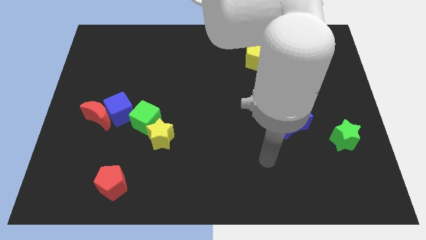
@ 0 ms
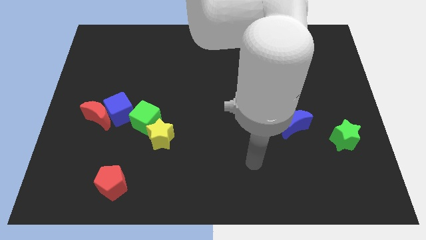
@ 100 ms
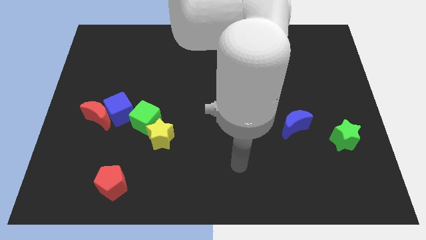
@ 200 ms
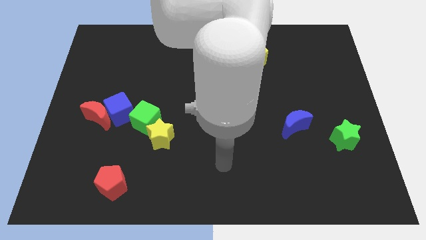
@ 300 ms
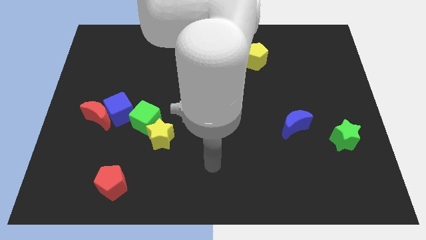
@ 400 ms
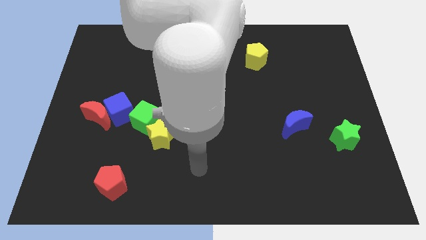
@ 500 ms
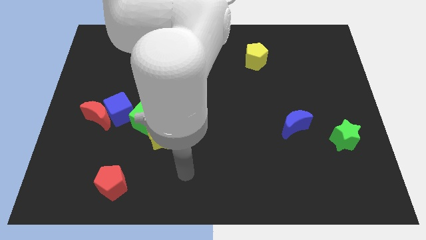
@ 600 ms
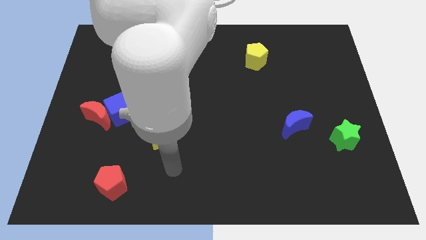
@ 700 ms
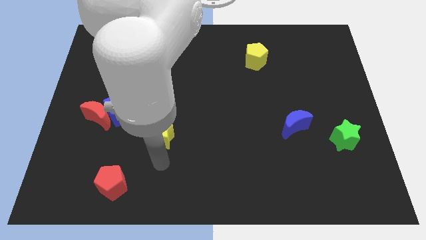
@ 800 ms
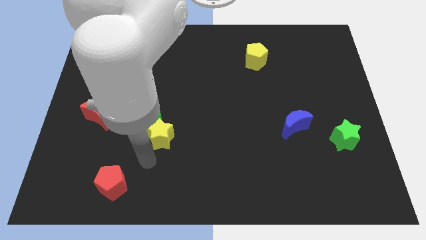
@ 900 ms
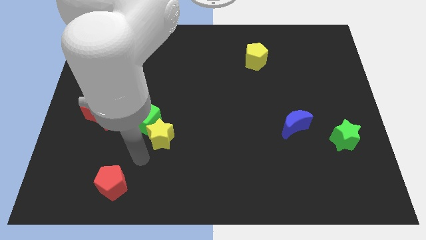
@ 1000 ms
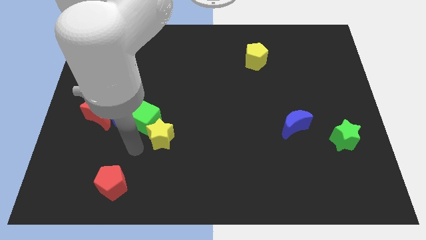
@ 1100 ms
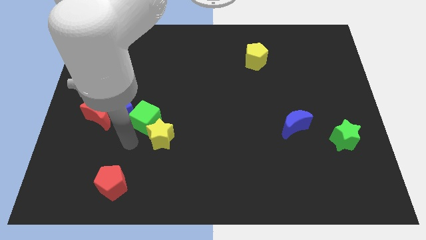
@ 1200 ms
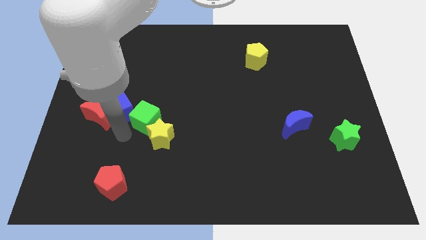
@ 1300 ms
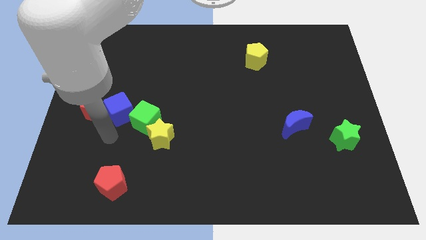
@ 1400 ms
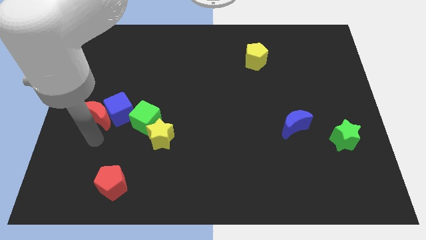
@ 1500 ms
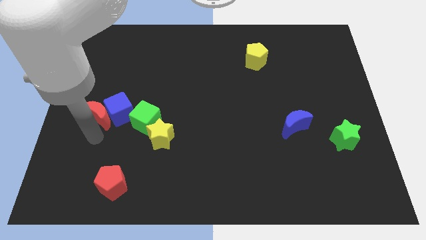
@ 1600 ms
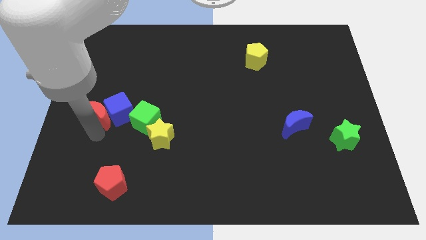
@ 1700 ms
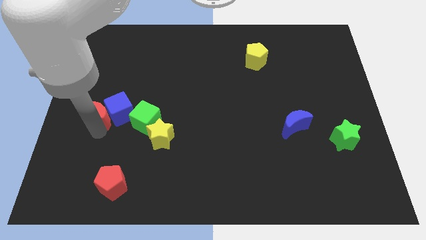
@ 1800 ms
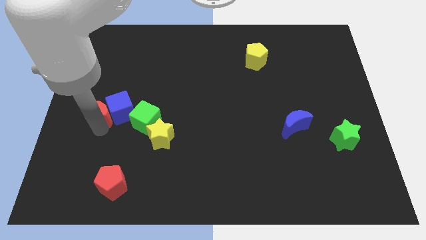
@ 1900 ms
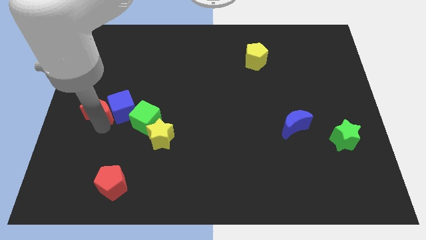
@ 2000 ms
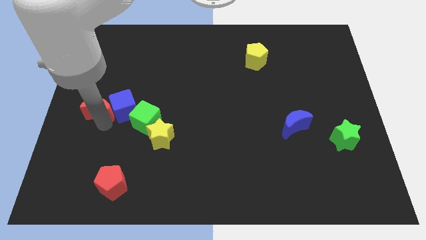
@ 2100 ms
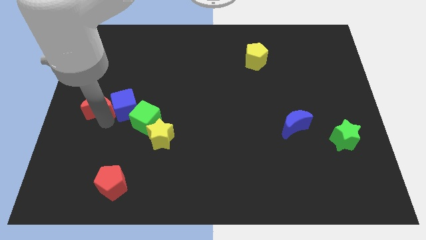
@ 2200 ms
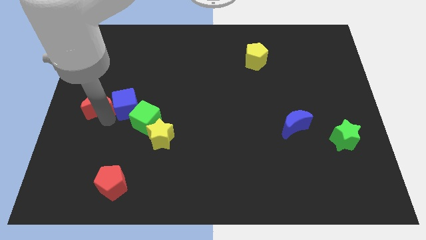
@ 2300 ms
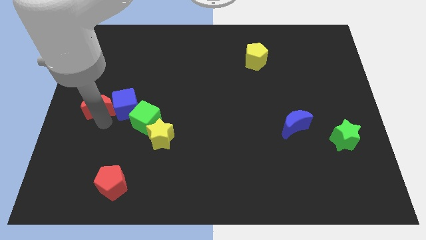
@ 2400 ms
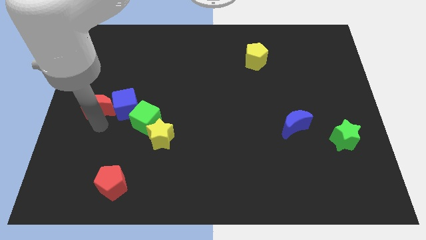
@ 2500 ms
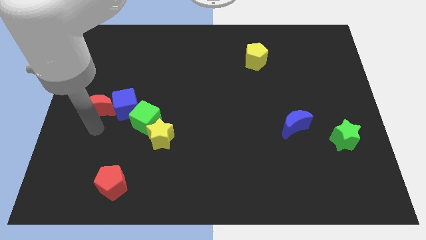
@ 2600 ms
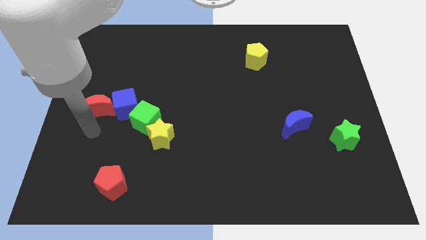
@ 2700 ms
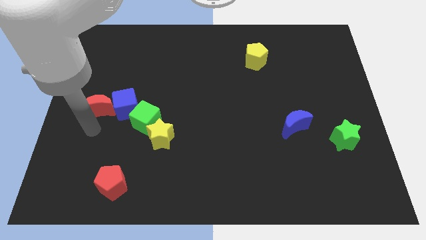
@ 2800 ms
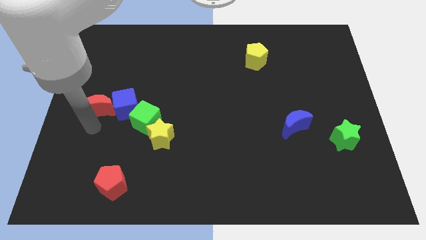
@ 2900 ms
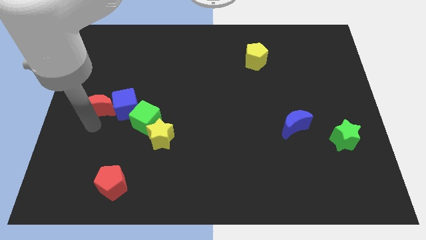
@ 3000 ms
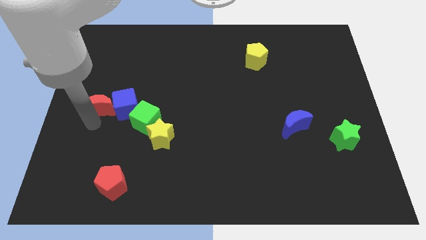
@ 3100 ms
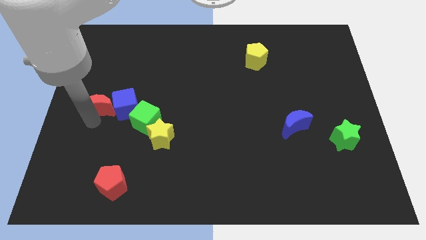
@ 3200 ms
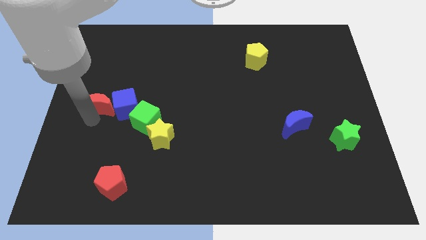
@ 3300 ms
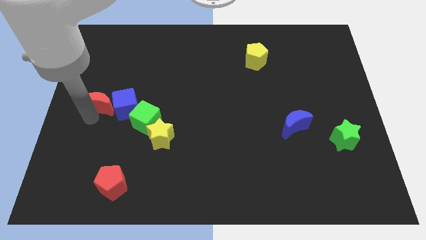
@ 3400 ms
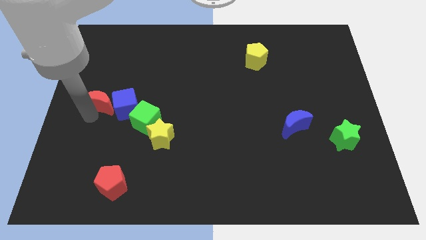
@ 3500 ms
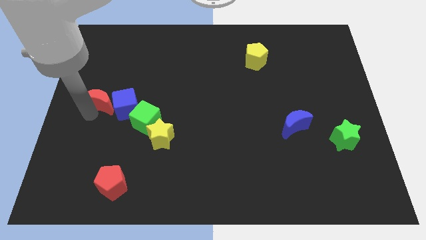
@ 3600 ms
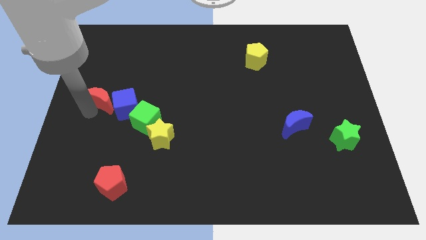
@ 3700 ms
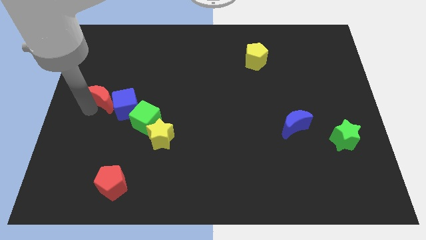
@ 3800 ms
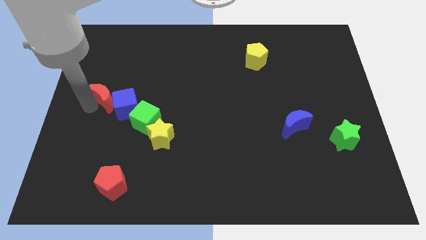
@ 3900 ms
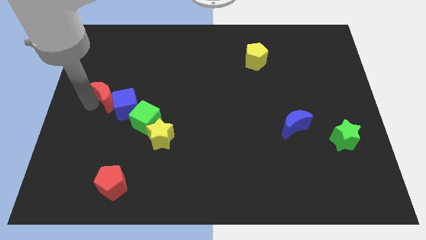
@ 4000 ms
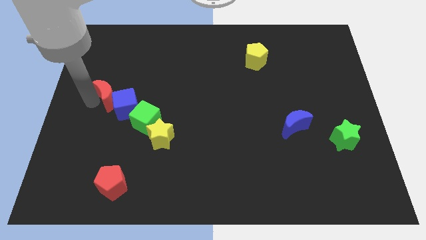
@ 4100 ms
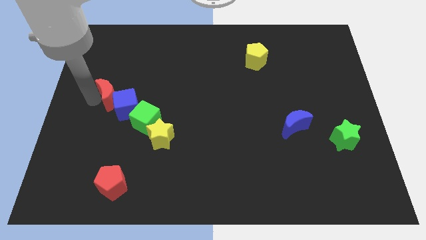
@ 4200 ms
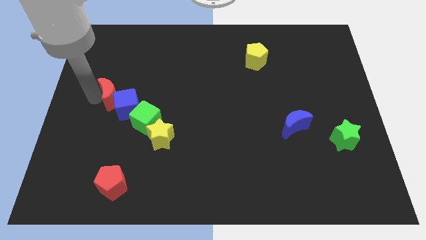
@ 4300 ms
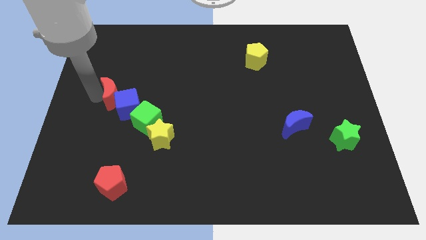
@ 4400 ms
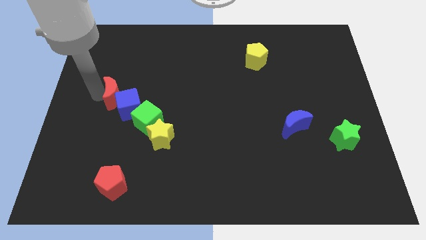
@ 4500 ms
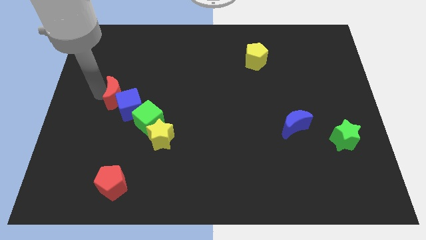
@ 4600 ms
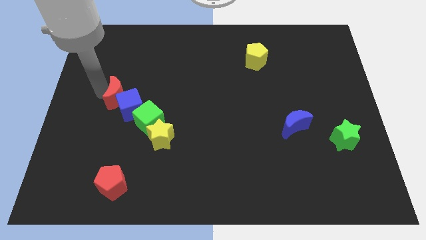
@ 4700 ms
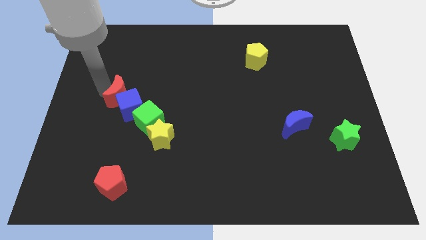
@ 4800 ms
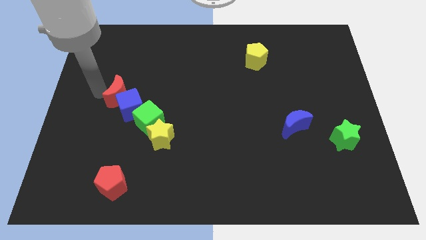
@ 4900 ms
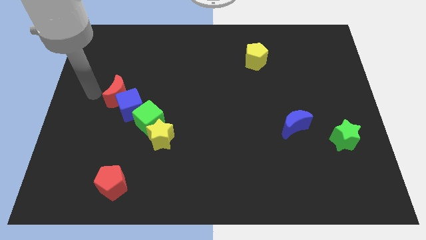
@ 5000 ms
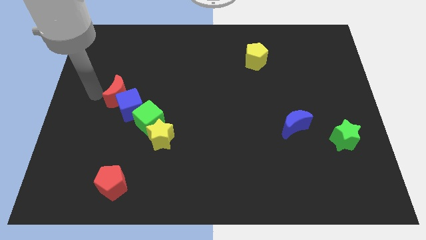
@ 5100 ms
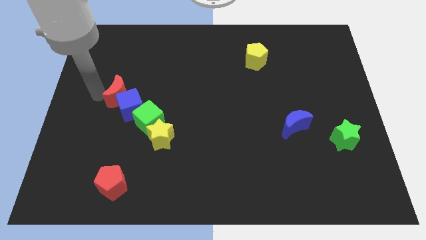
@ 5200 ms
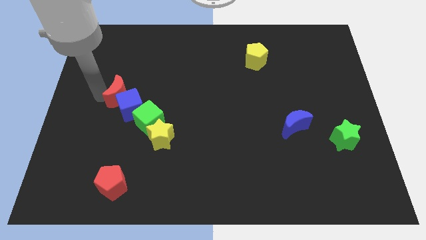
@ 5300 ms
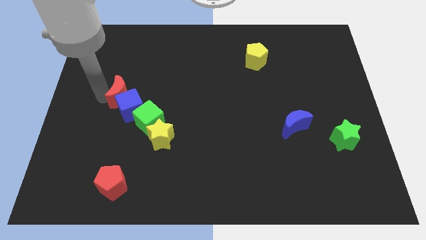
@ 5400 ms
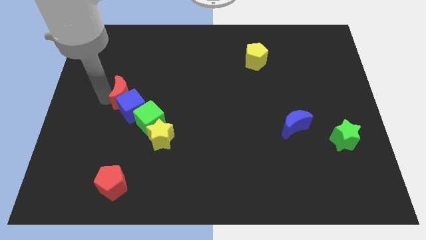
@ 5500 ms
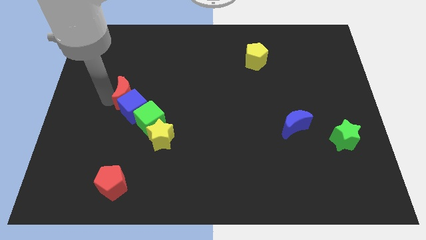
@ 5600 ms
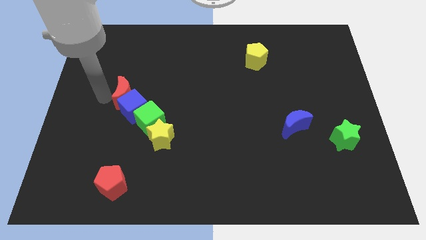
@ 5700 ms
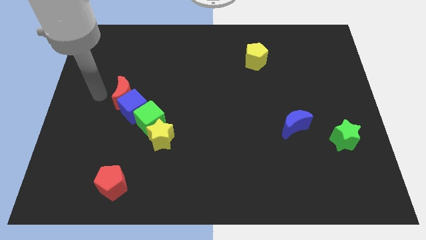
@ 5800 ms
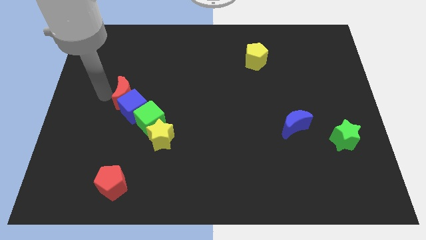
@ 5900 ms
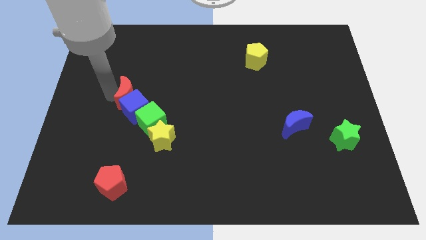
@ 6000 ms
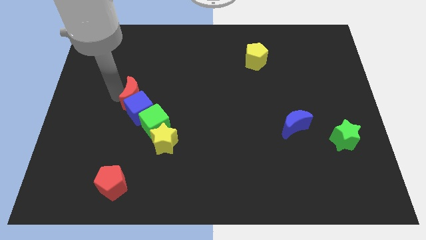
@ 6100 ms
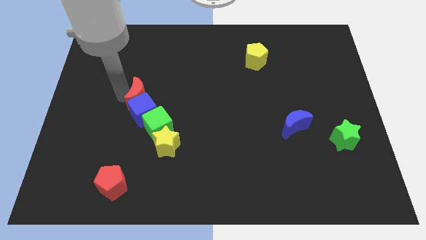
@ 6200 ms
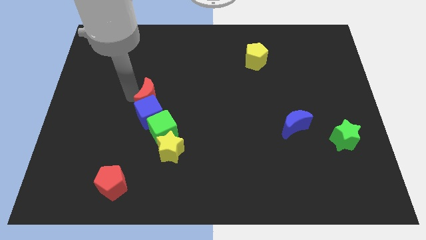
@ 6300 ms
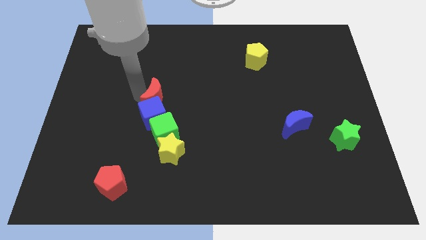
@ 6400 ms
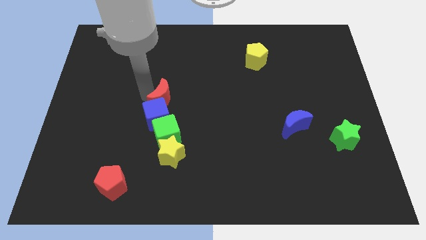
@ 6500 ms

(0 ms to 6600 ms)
push the red moon to the top of the yellow star

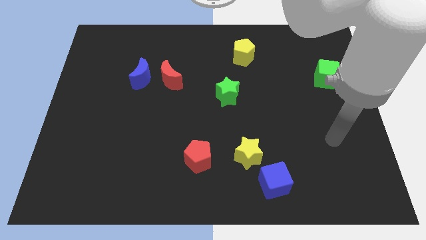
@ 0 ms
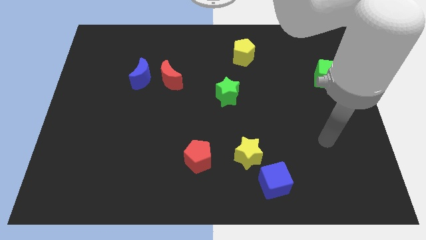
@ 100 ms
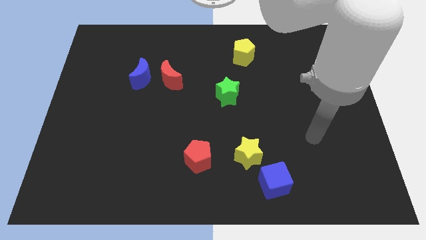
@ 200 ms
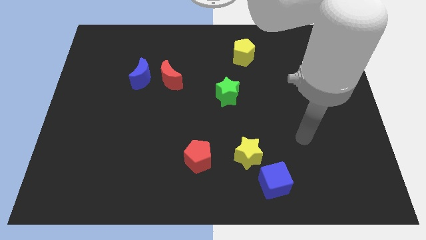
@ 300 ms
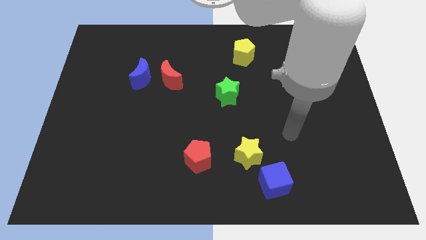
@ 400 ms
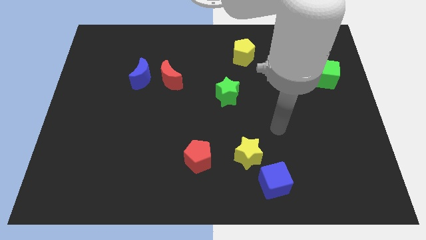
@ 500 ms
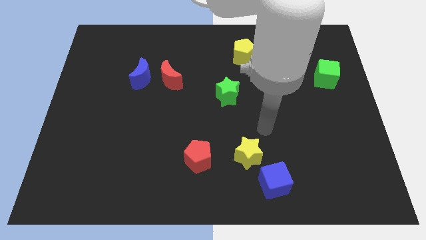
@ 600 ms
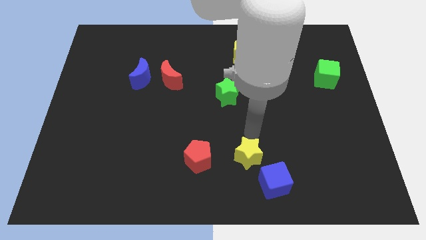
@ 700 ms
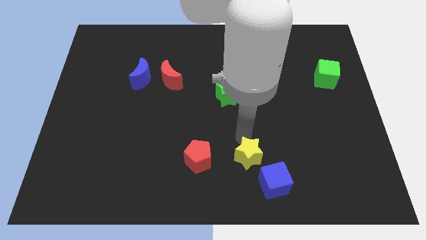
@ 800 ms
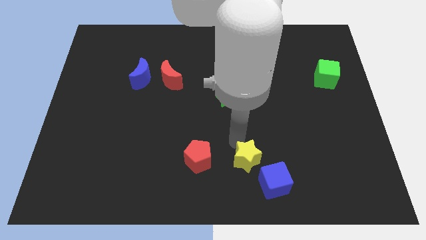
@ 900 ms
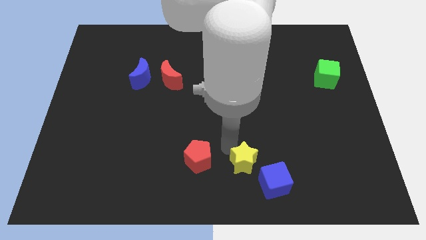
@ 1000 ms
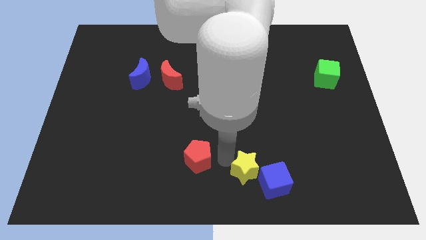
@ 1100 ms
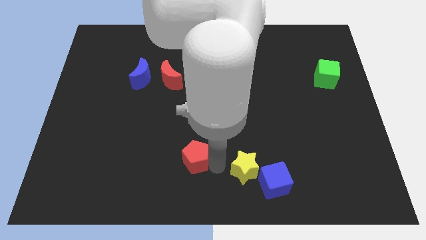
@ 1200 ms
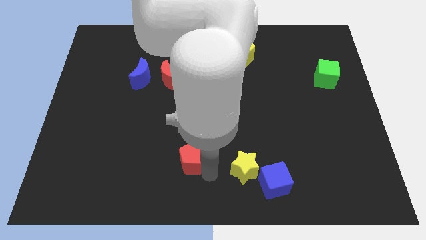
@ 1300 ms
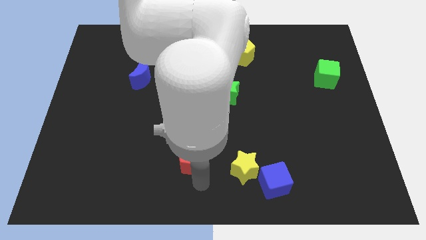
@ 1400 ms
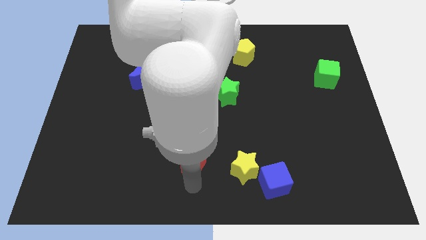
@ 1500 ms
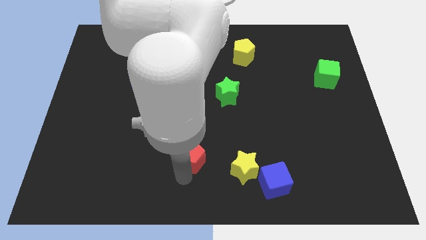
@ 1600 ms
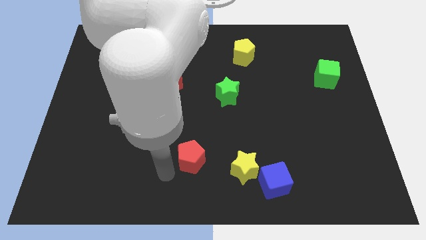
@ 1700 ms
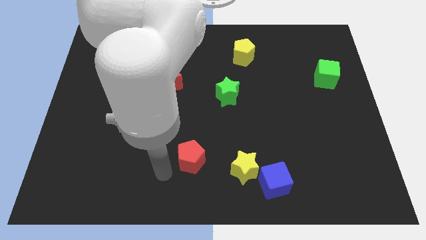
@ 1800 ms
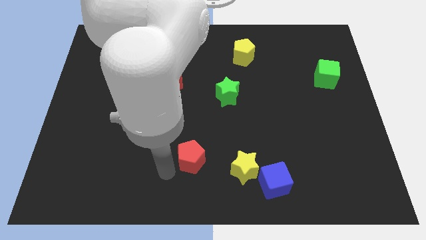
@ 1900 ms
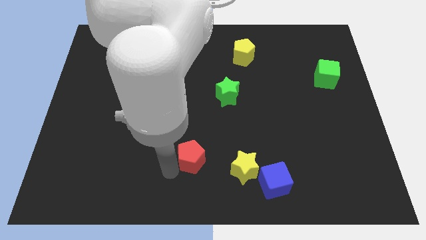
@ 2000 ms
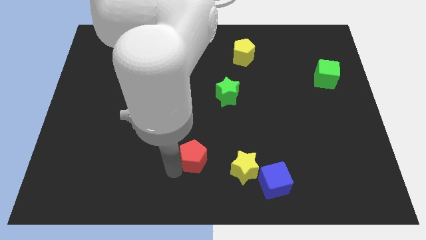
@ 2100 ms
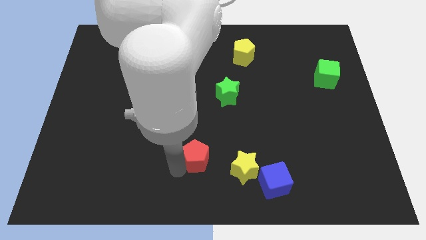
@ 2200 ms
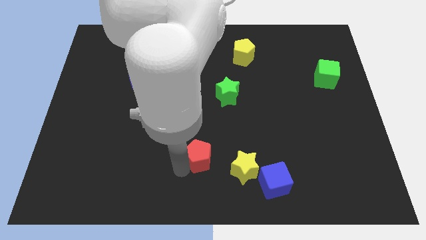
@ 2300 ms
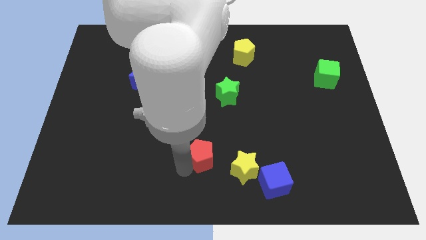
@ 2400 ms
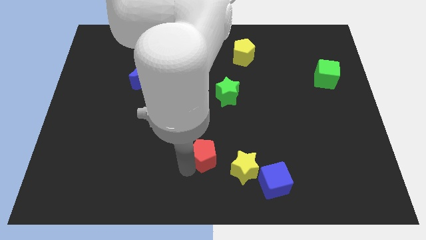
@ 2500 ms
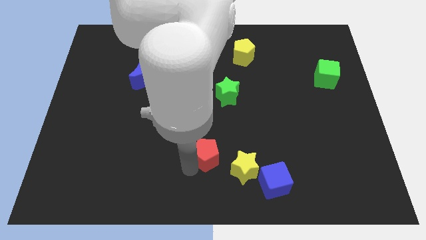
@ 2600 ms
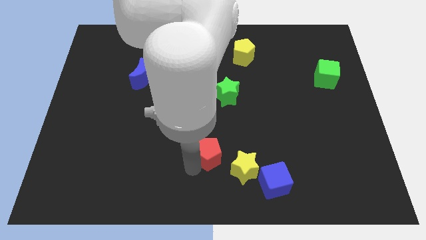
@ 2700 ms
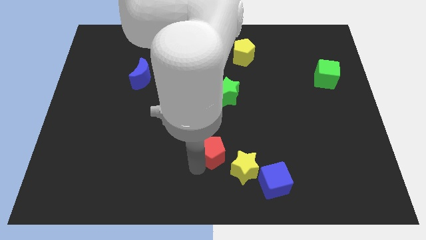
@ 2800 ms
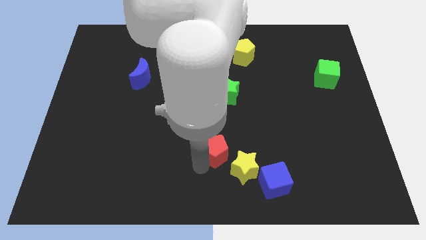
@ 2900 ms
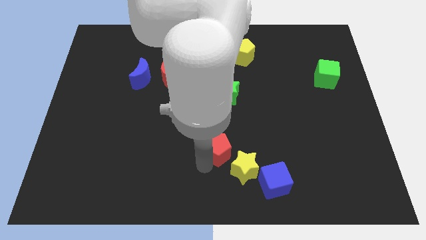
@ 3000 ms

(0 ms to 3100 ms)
slide the red pentagon to the bottom side of the green star
